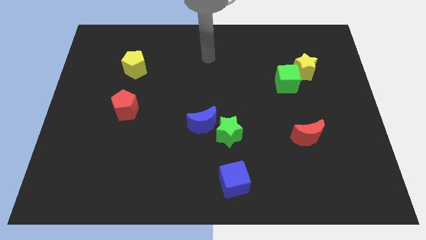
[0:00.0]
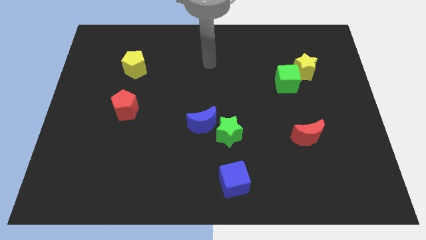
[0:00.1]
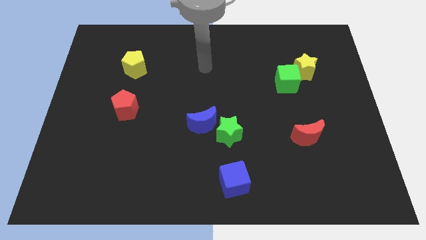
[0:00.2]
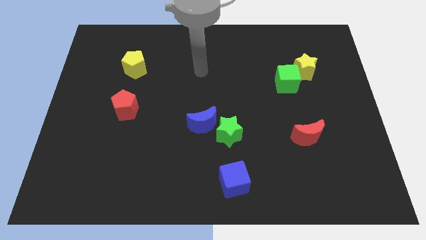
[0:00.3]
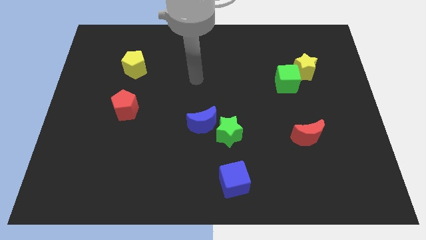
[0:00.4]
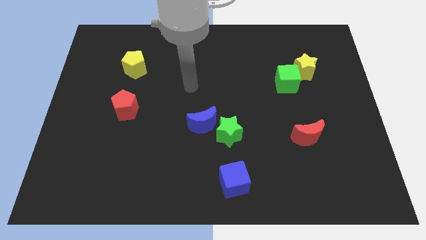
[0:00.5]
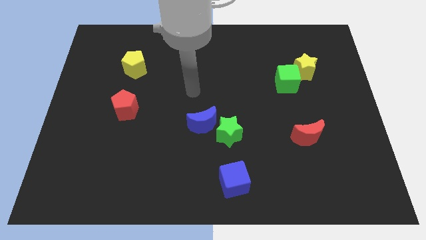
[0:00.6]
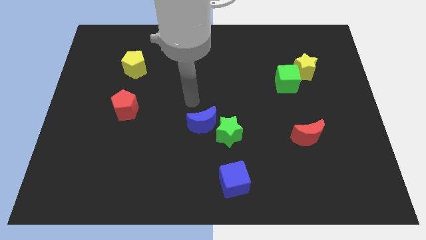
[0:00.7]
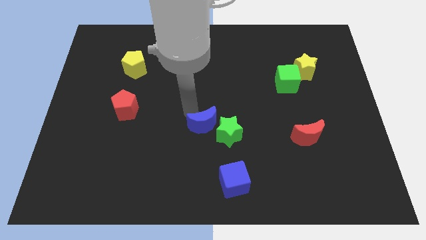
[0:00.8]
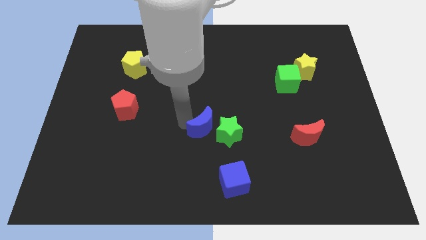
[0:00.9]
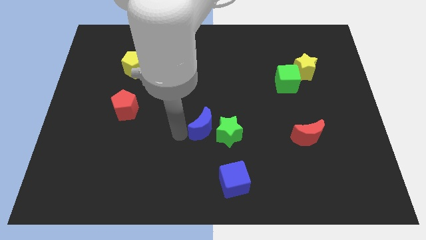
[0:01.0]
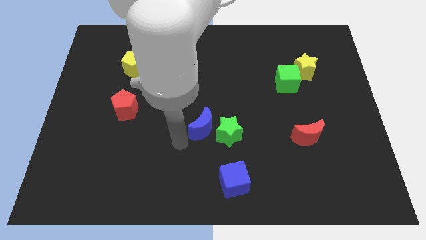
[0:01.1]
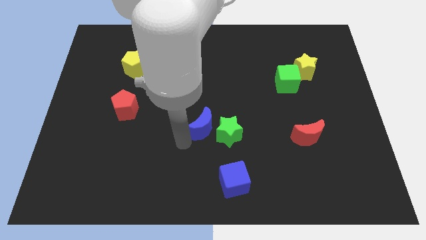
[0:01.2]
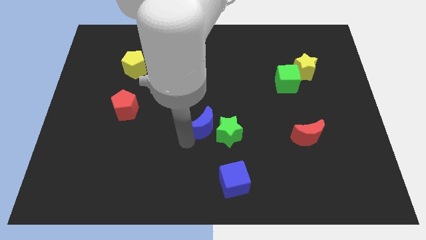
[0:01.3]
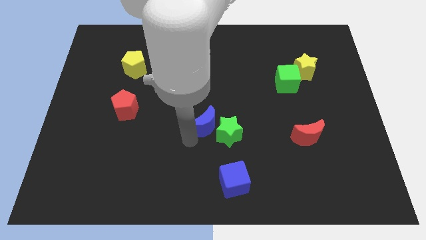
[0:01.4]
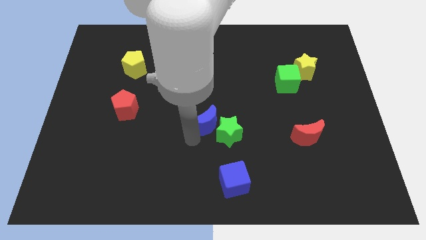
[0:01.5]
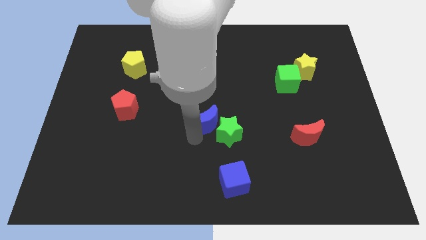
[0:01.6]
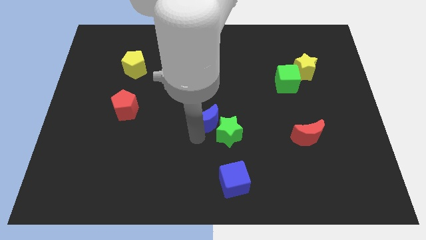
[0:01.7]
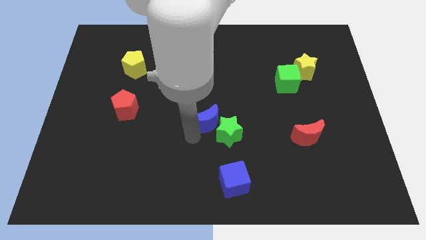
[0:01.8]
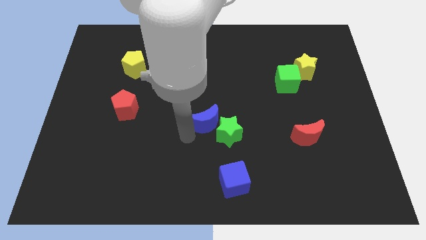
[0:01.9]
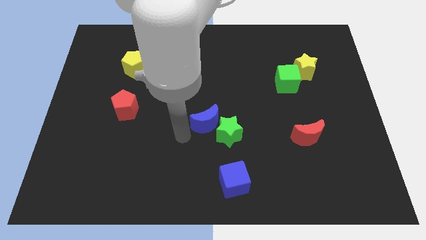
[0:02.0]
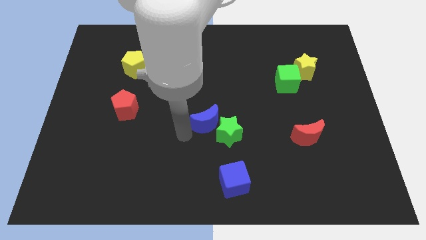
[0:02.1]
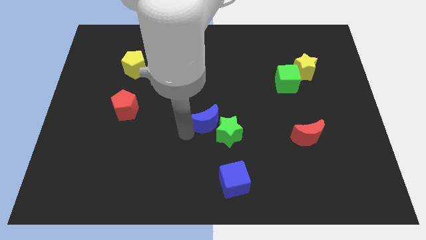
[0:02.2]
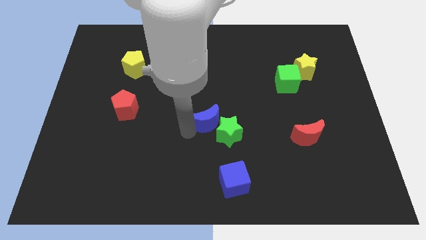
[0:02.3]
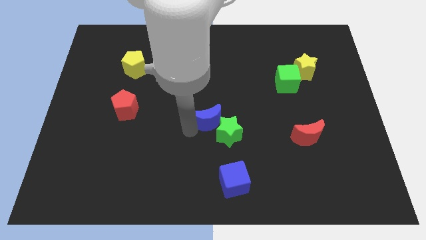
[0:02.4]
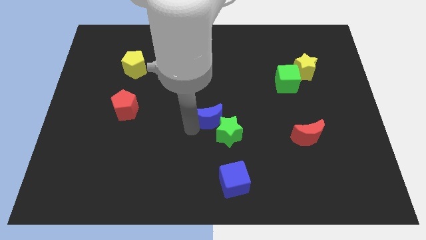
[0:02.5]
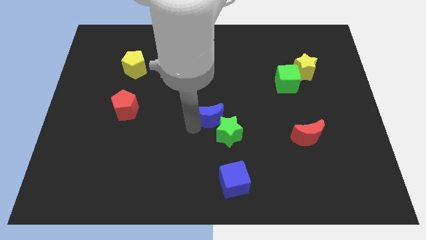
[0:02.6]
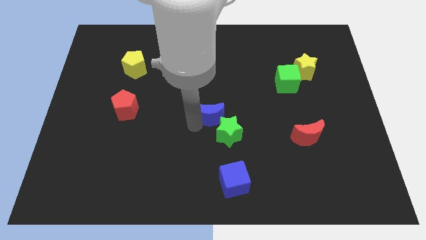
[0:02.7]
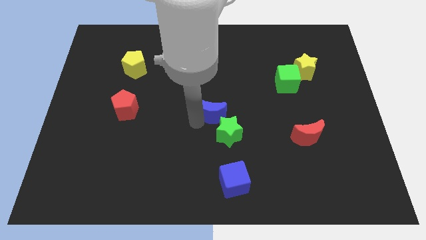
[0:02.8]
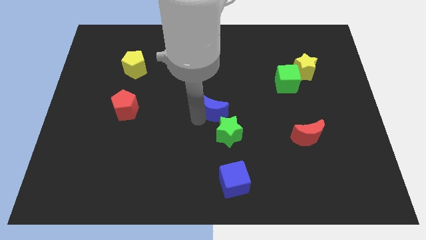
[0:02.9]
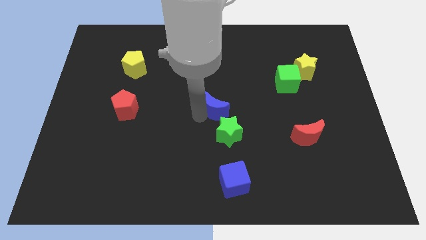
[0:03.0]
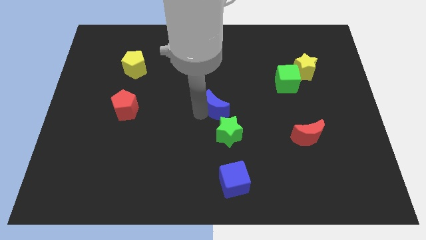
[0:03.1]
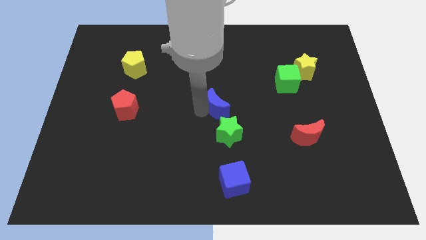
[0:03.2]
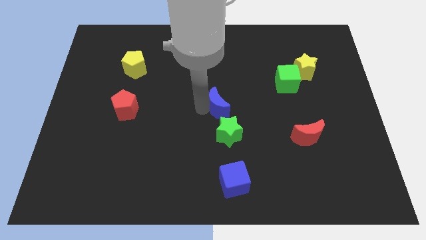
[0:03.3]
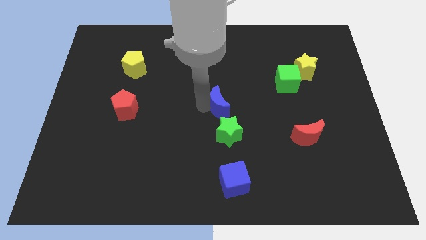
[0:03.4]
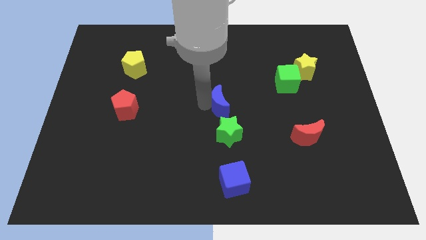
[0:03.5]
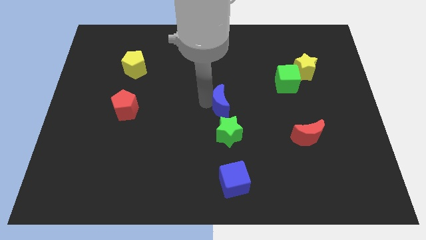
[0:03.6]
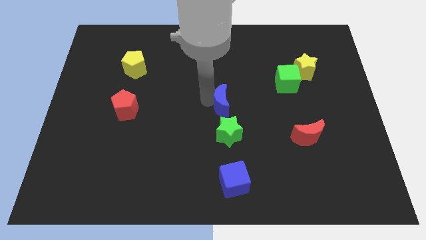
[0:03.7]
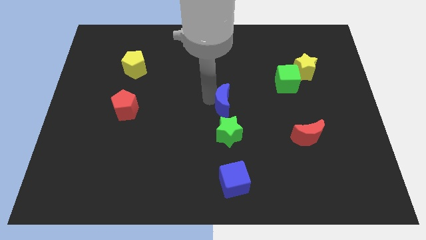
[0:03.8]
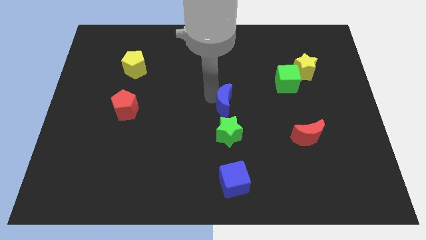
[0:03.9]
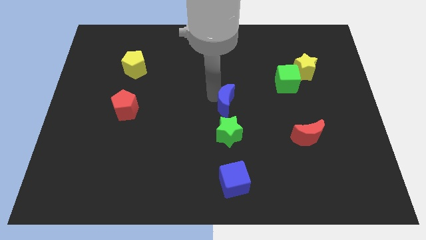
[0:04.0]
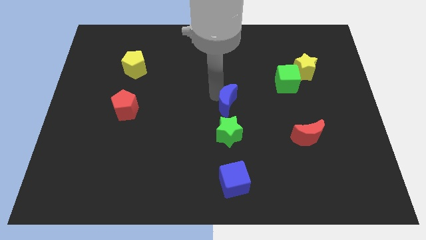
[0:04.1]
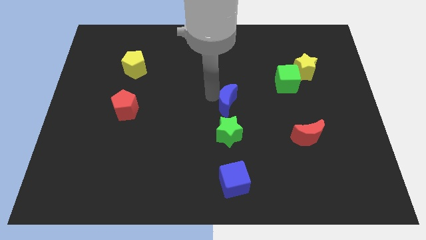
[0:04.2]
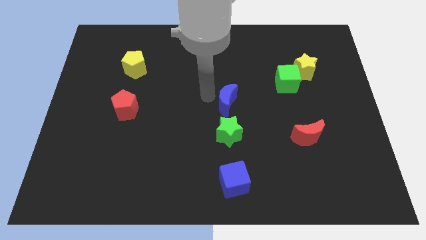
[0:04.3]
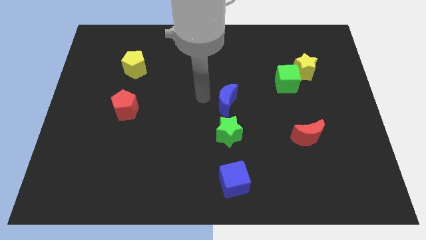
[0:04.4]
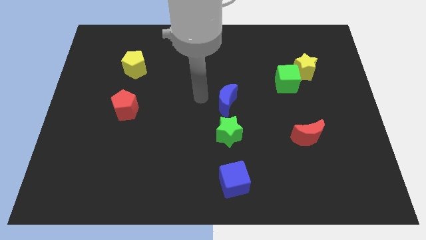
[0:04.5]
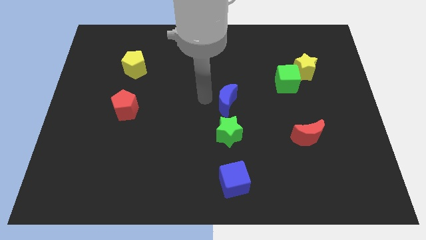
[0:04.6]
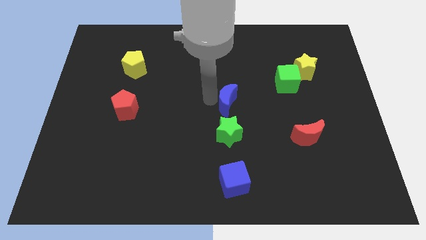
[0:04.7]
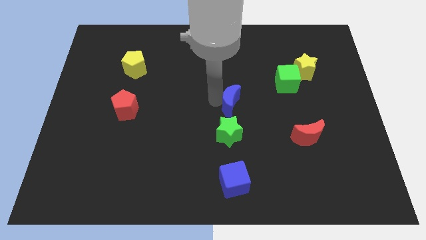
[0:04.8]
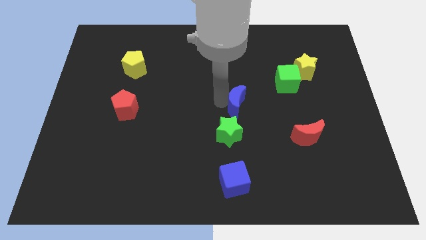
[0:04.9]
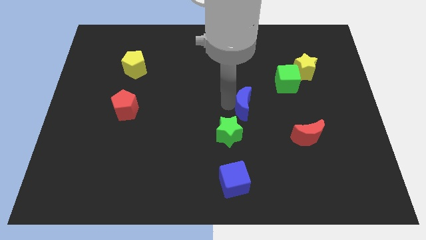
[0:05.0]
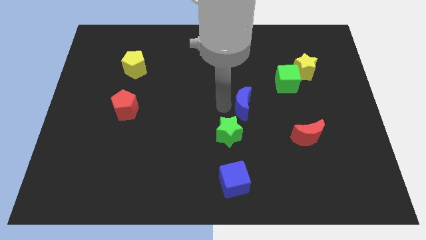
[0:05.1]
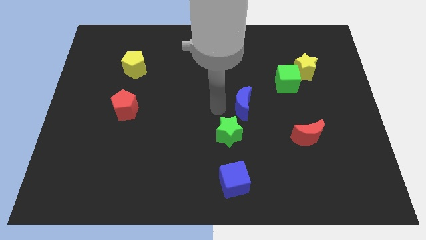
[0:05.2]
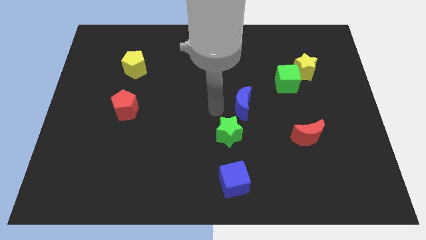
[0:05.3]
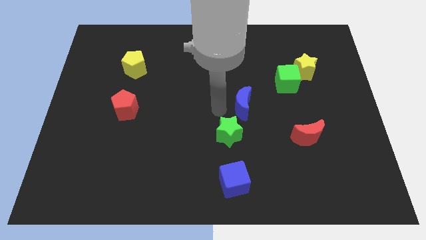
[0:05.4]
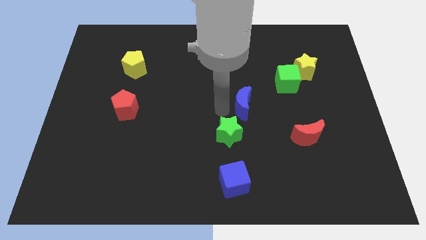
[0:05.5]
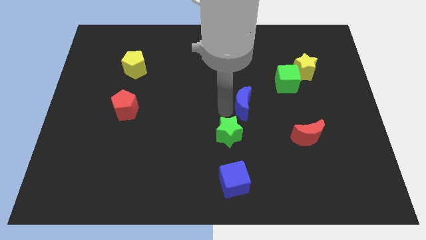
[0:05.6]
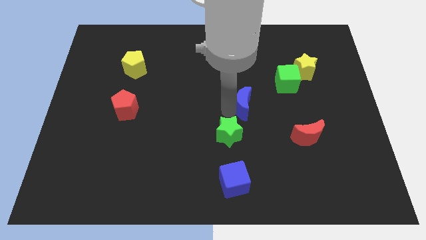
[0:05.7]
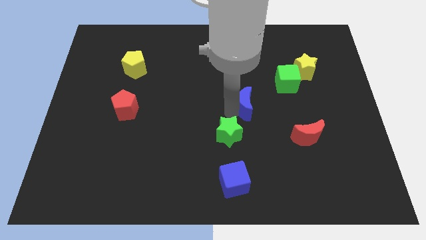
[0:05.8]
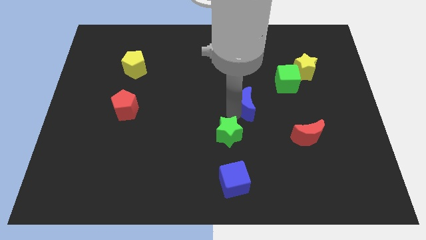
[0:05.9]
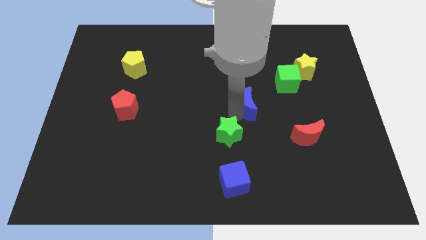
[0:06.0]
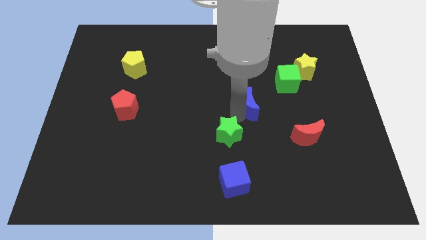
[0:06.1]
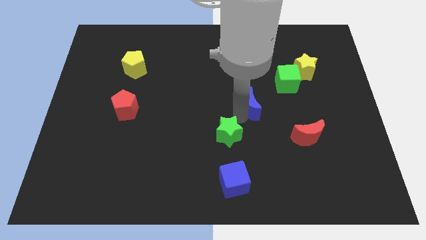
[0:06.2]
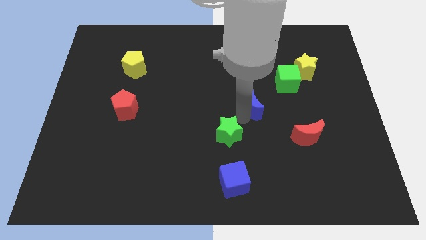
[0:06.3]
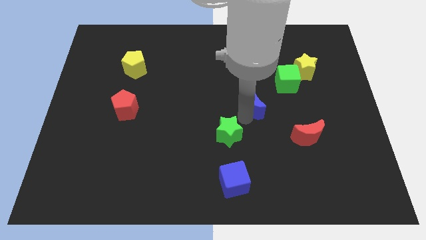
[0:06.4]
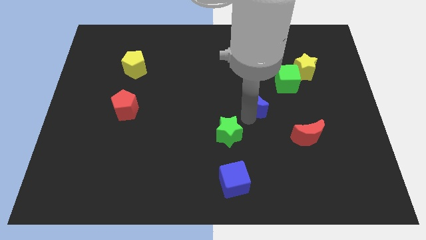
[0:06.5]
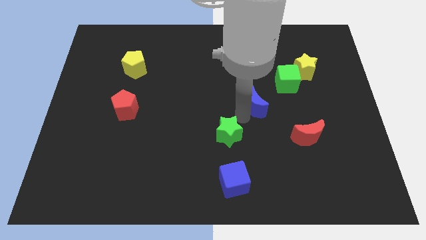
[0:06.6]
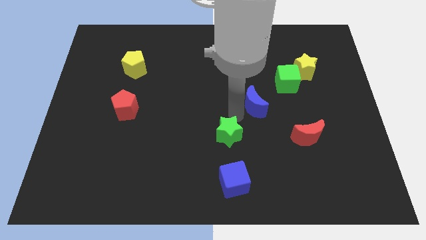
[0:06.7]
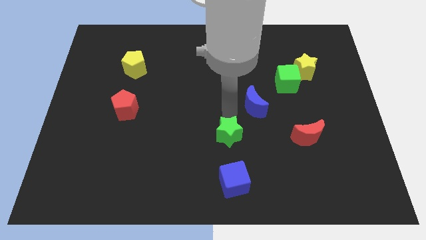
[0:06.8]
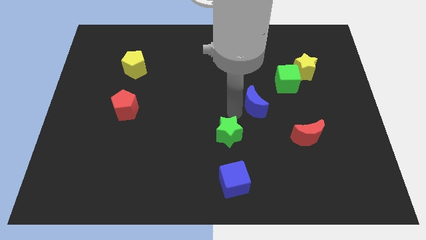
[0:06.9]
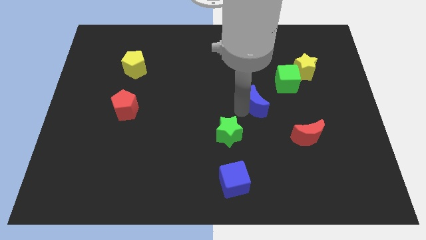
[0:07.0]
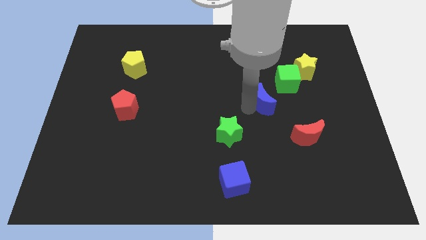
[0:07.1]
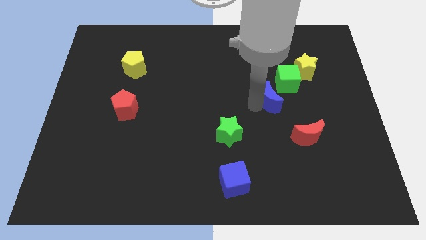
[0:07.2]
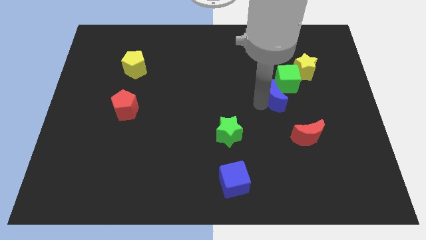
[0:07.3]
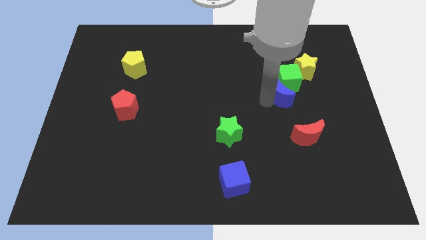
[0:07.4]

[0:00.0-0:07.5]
push the blue moon to the top of the red moon
